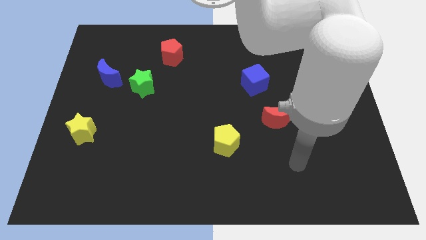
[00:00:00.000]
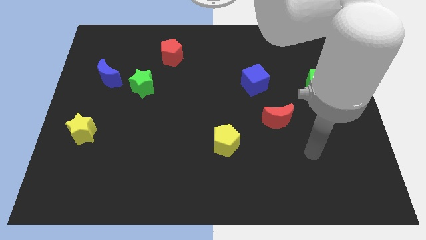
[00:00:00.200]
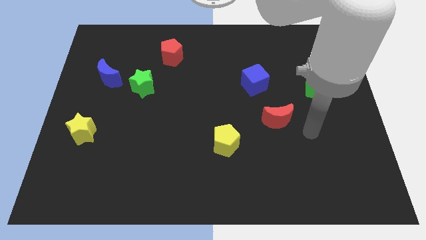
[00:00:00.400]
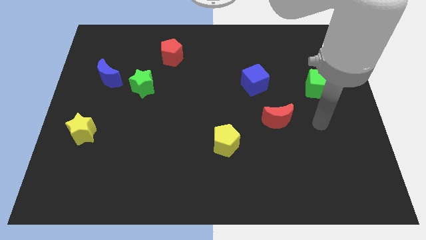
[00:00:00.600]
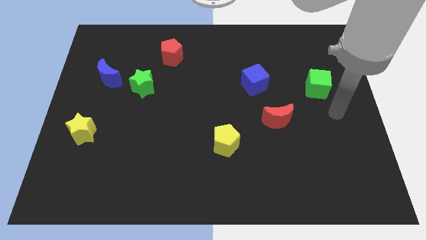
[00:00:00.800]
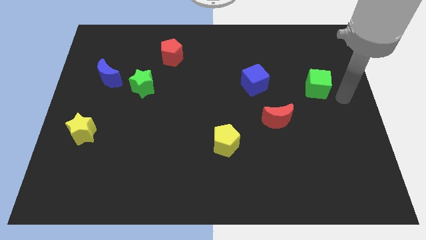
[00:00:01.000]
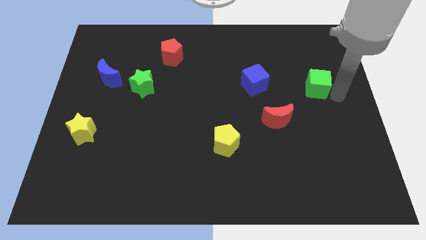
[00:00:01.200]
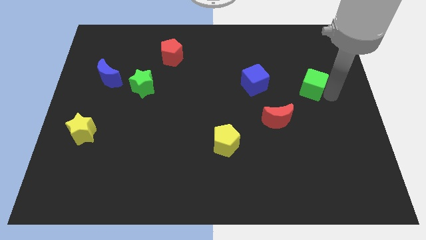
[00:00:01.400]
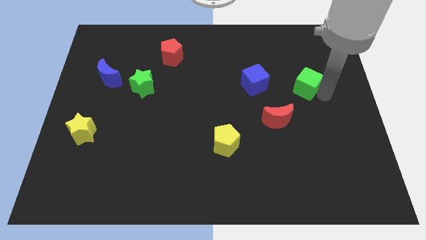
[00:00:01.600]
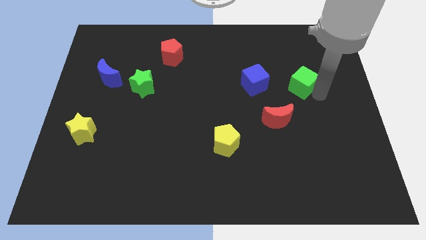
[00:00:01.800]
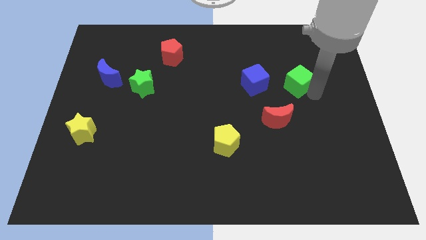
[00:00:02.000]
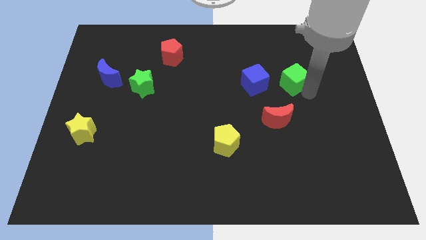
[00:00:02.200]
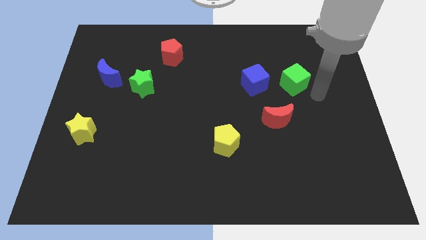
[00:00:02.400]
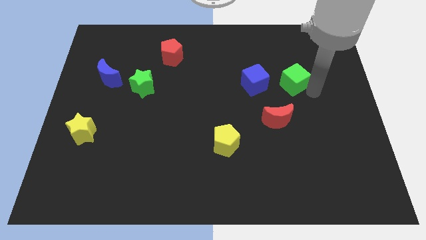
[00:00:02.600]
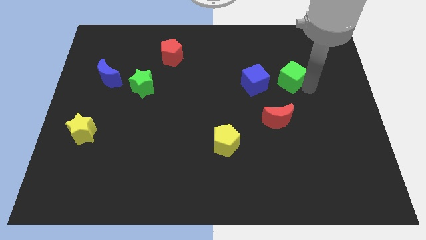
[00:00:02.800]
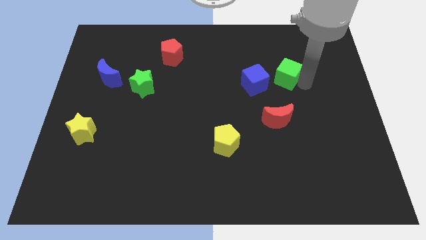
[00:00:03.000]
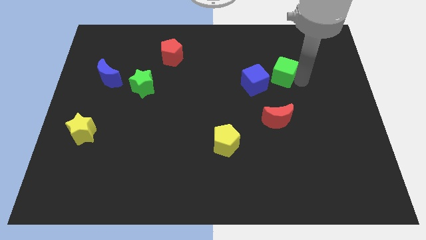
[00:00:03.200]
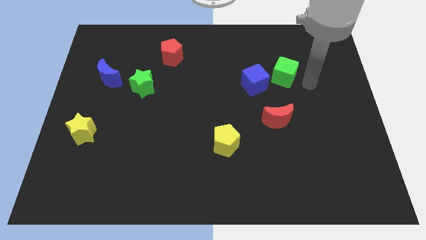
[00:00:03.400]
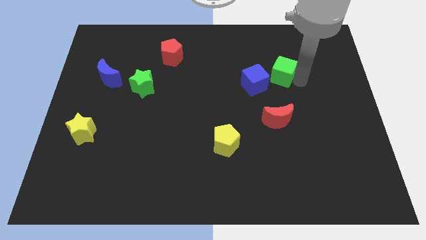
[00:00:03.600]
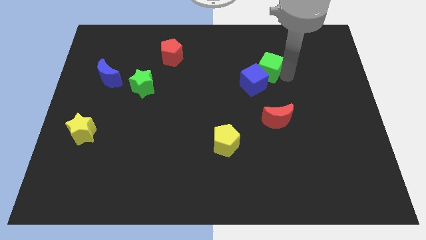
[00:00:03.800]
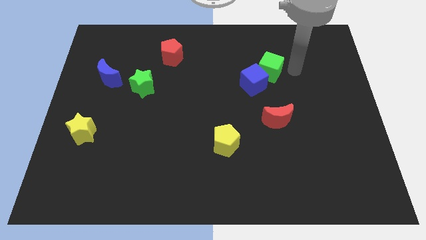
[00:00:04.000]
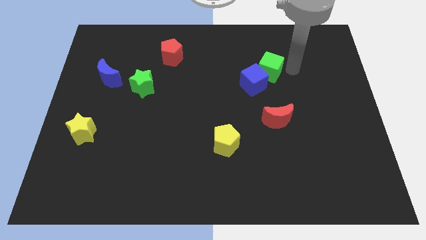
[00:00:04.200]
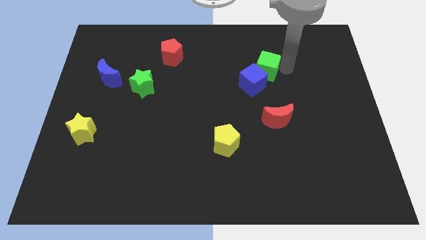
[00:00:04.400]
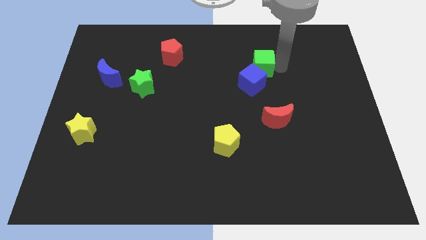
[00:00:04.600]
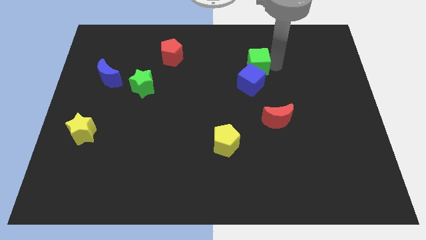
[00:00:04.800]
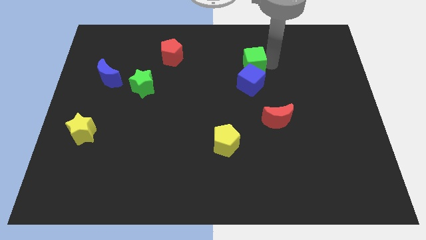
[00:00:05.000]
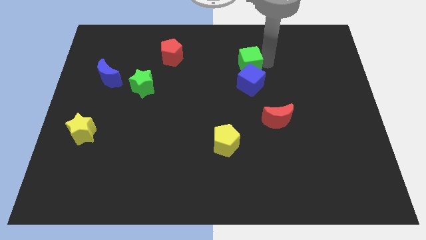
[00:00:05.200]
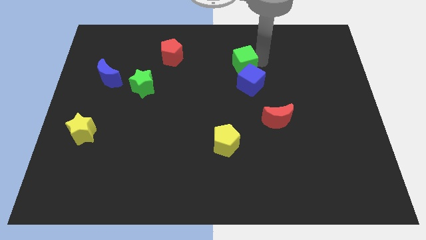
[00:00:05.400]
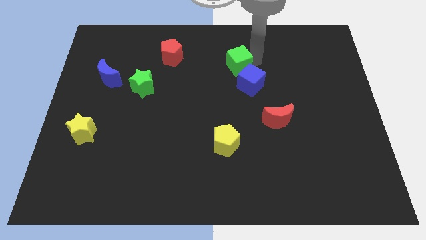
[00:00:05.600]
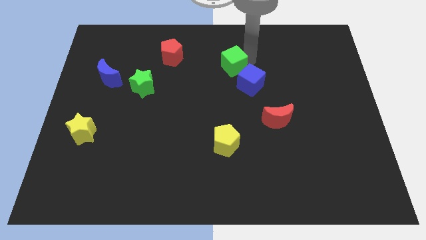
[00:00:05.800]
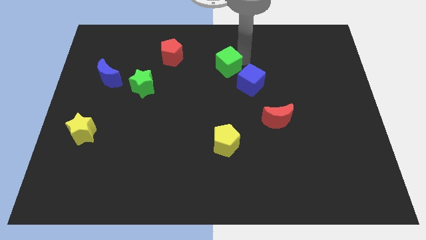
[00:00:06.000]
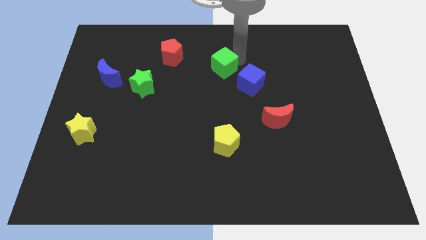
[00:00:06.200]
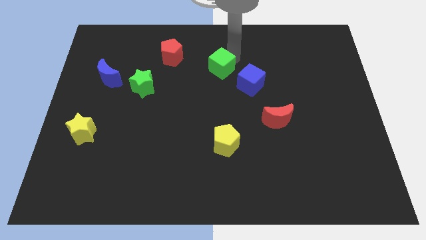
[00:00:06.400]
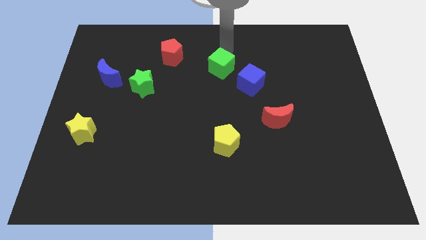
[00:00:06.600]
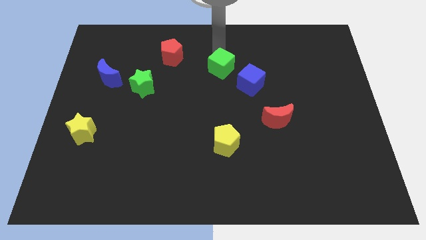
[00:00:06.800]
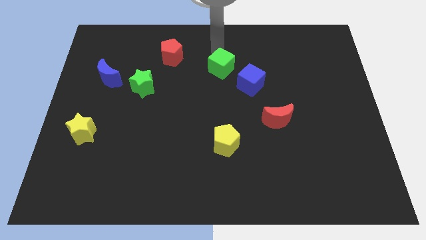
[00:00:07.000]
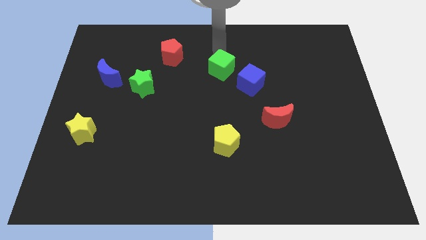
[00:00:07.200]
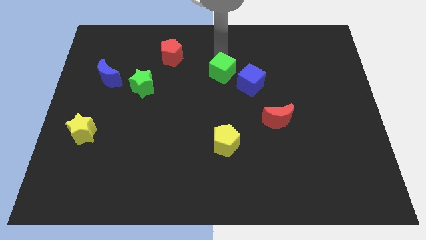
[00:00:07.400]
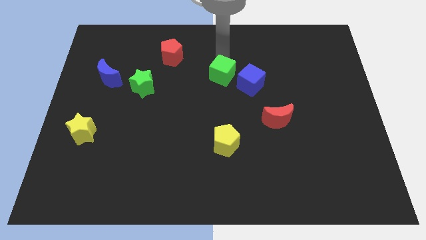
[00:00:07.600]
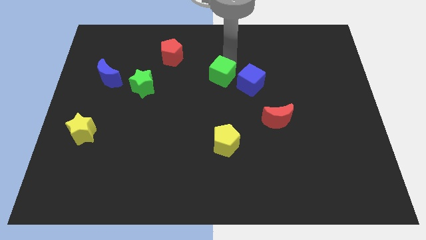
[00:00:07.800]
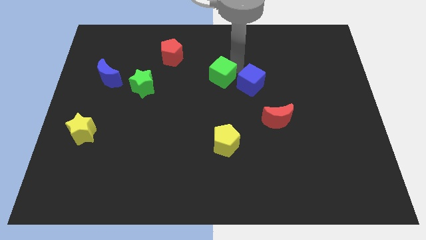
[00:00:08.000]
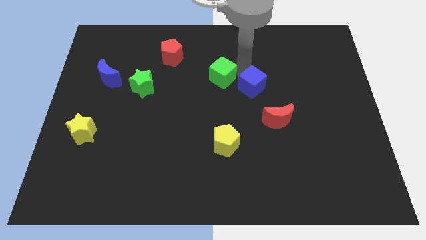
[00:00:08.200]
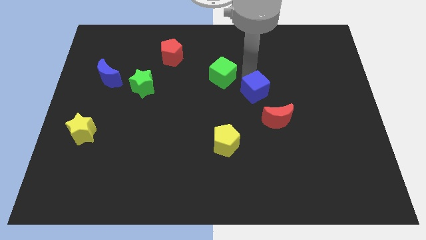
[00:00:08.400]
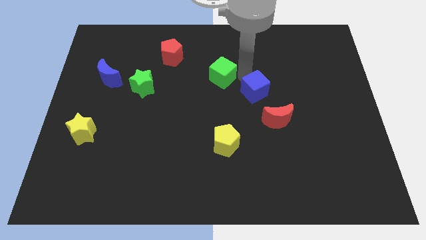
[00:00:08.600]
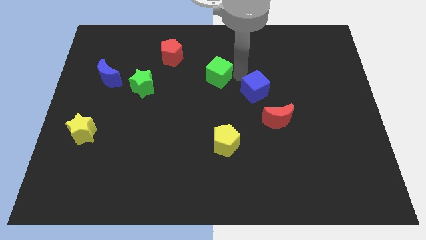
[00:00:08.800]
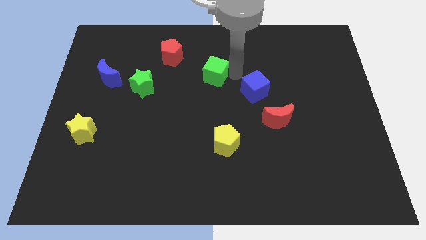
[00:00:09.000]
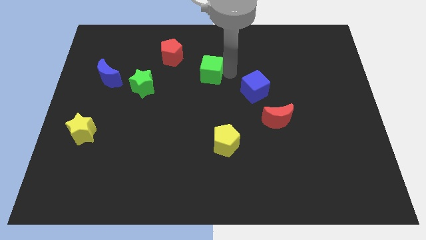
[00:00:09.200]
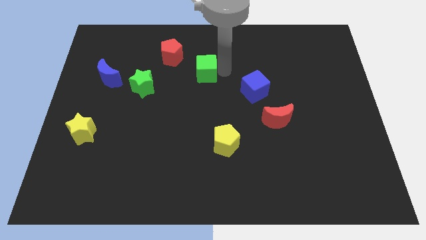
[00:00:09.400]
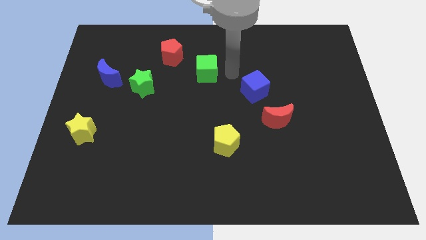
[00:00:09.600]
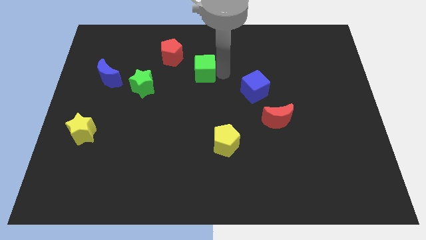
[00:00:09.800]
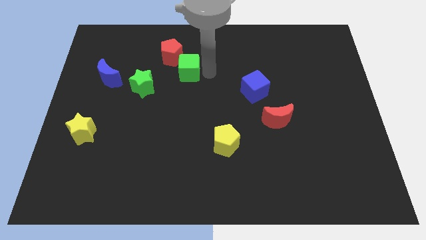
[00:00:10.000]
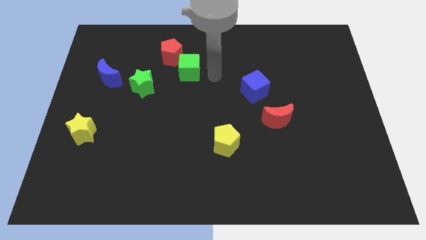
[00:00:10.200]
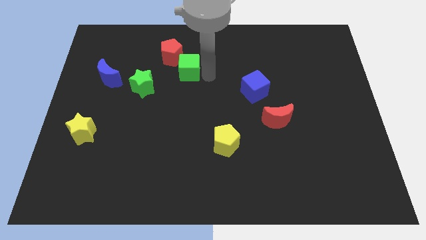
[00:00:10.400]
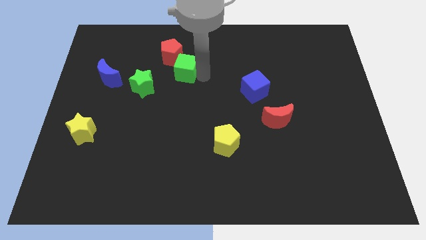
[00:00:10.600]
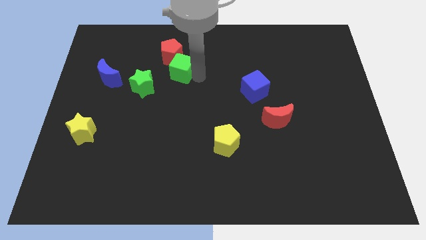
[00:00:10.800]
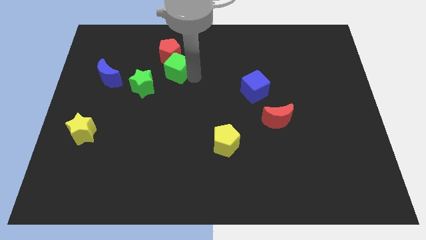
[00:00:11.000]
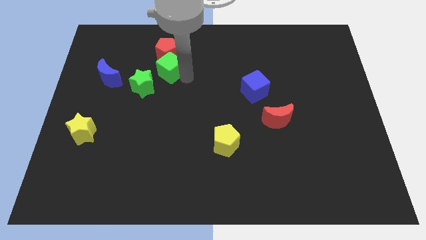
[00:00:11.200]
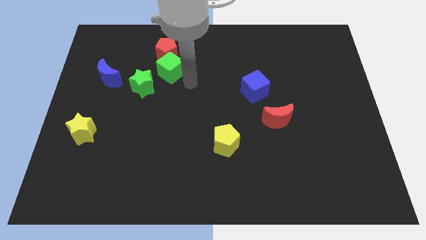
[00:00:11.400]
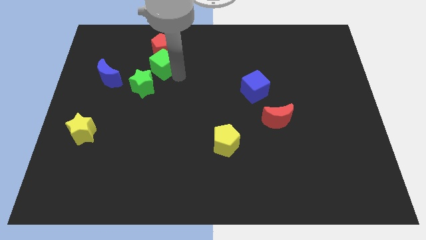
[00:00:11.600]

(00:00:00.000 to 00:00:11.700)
put the green cube to the top side of the green star

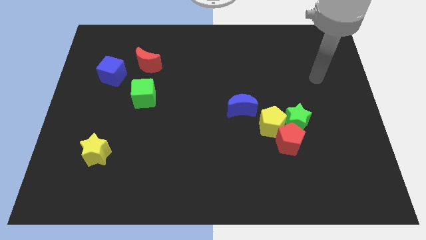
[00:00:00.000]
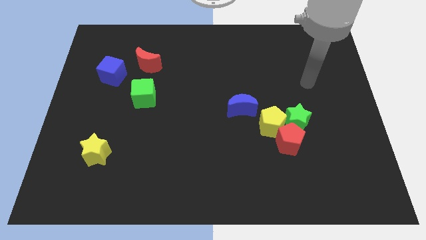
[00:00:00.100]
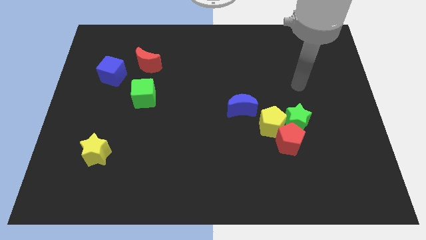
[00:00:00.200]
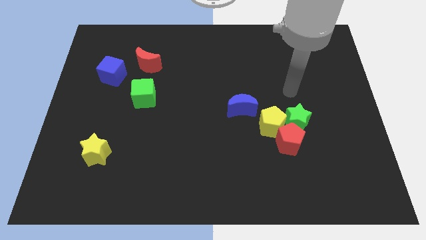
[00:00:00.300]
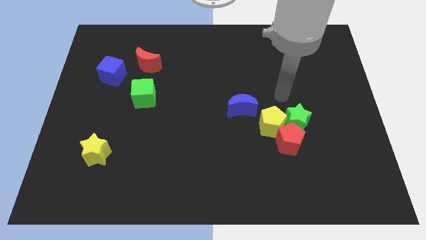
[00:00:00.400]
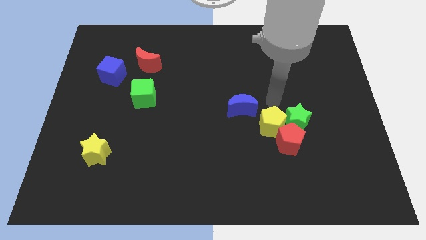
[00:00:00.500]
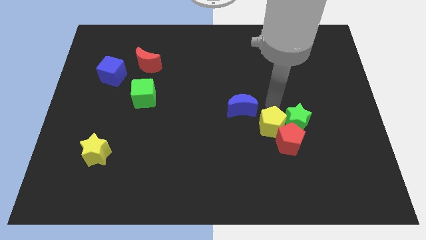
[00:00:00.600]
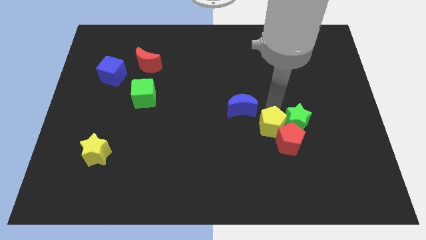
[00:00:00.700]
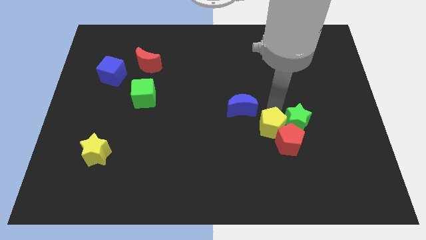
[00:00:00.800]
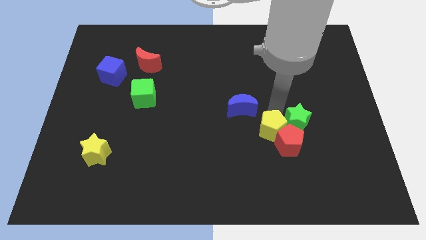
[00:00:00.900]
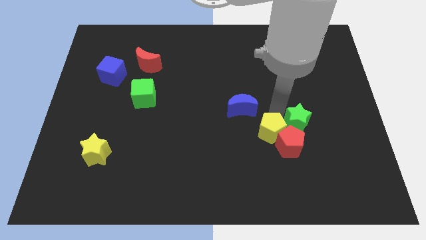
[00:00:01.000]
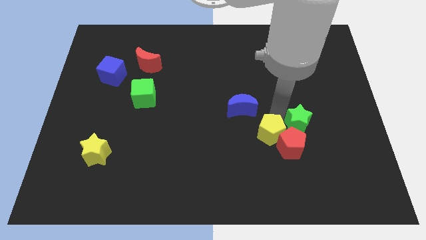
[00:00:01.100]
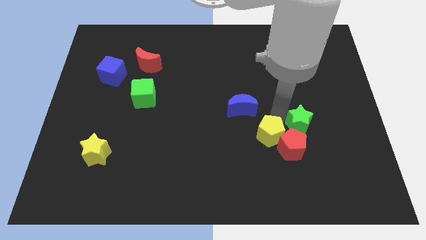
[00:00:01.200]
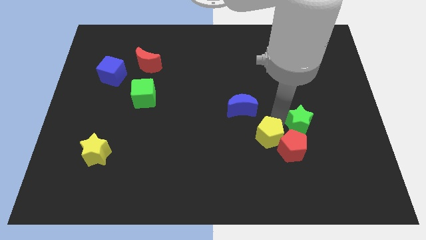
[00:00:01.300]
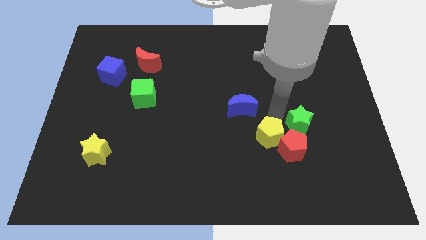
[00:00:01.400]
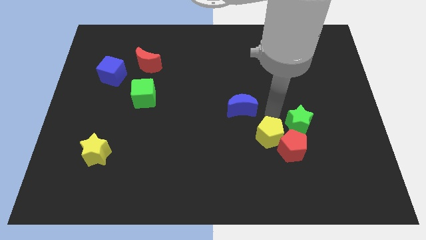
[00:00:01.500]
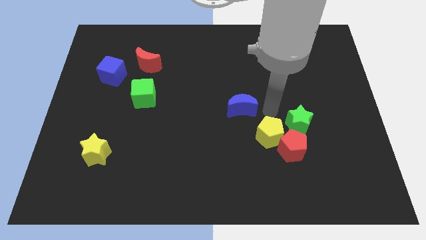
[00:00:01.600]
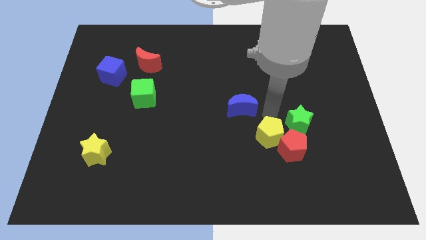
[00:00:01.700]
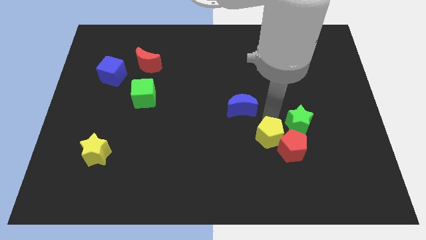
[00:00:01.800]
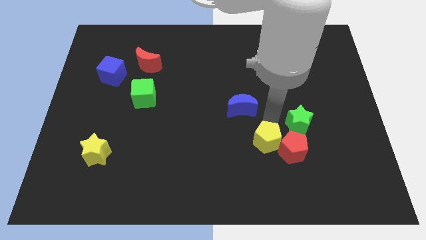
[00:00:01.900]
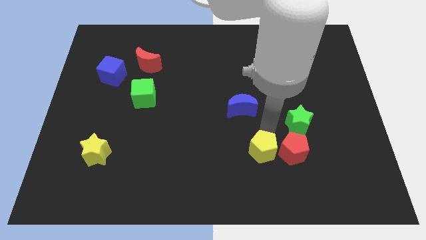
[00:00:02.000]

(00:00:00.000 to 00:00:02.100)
move the yellow pentagon to the bottom left side of the red pentagon
